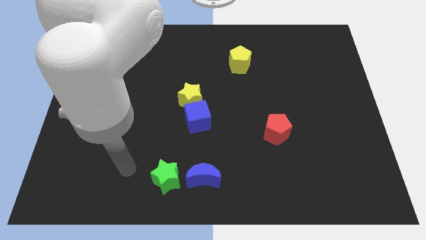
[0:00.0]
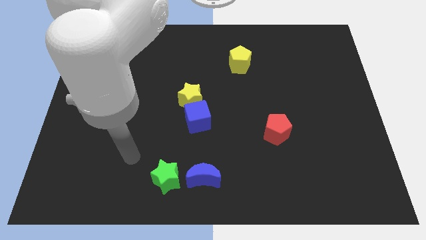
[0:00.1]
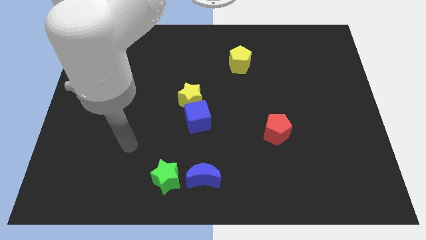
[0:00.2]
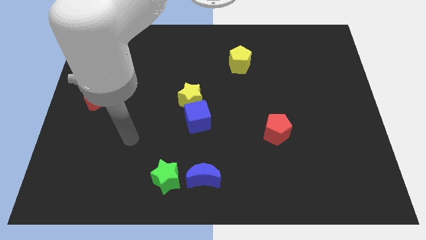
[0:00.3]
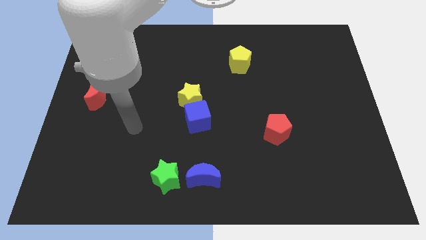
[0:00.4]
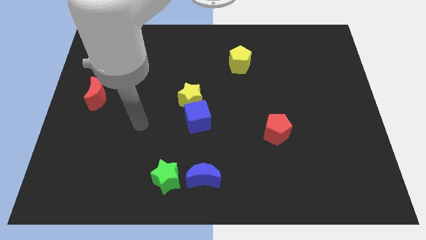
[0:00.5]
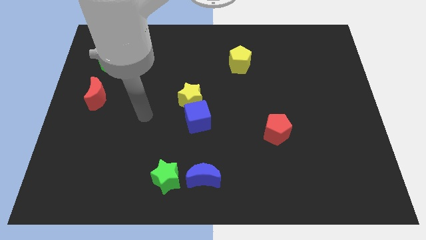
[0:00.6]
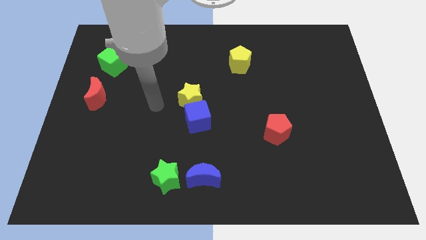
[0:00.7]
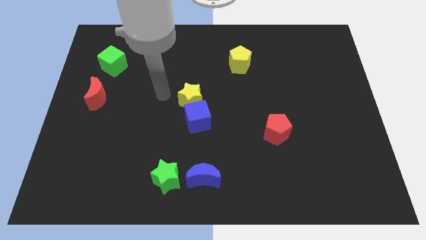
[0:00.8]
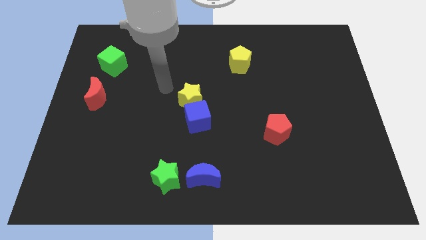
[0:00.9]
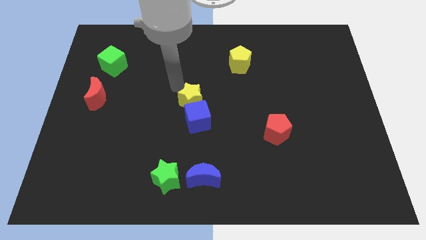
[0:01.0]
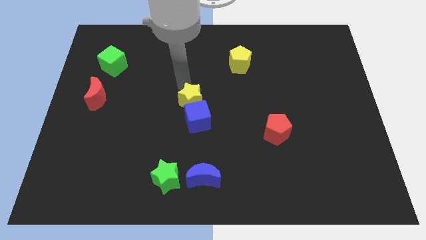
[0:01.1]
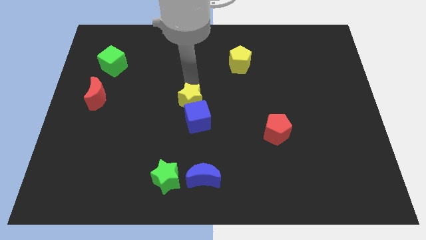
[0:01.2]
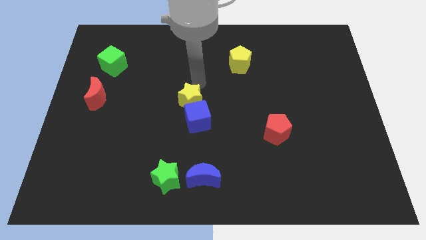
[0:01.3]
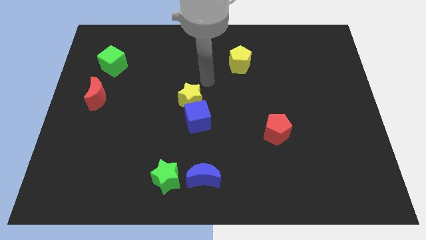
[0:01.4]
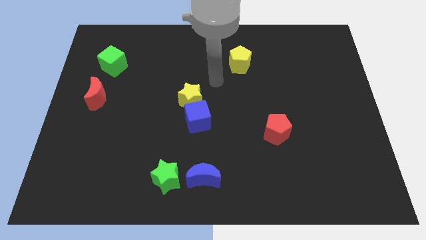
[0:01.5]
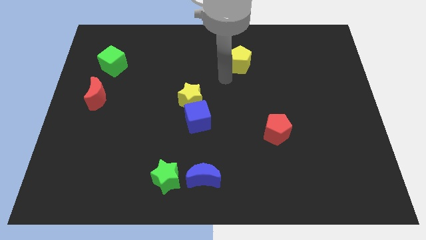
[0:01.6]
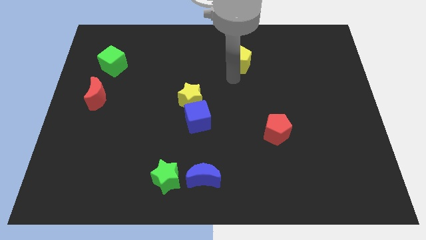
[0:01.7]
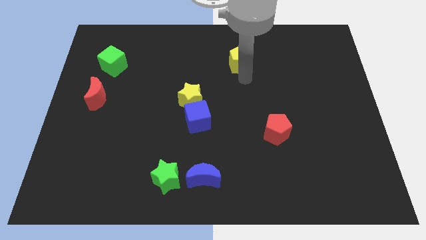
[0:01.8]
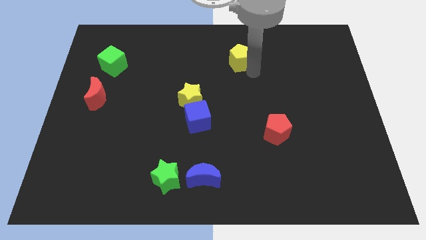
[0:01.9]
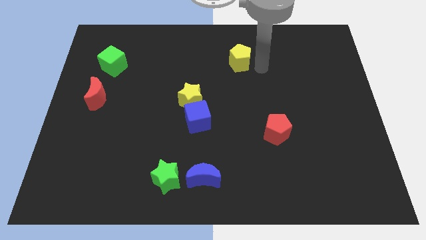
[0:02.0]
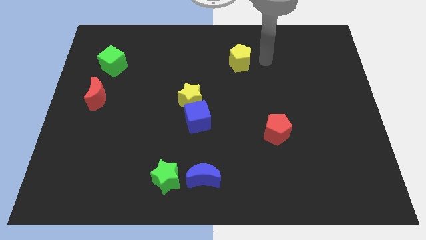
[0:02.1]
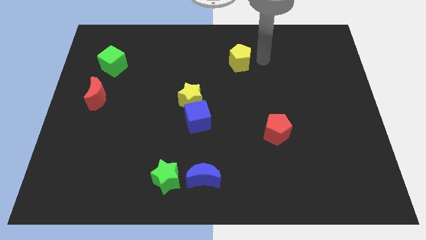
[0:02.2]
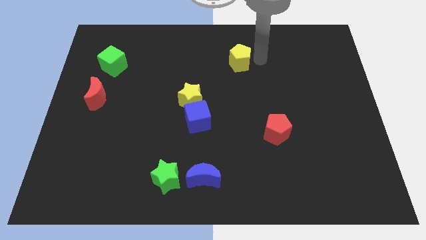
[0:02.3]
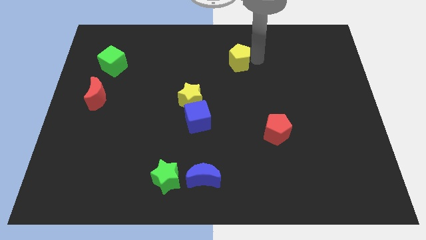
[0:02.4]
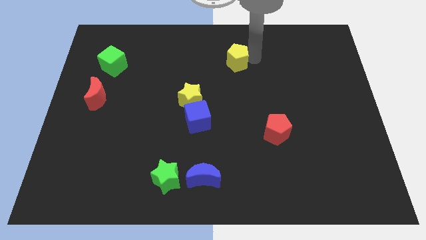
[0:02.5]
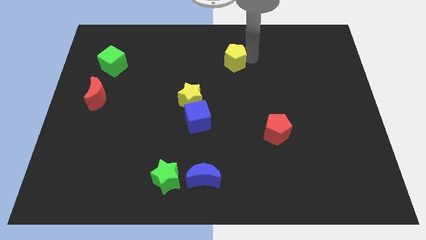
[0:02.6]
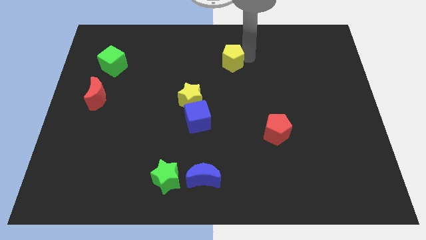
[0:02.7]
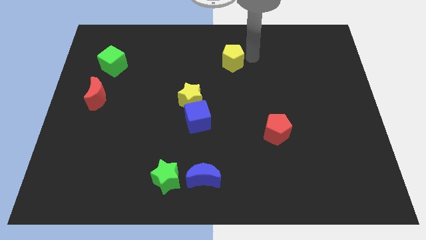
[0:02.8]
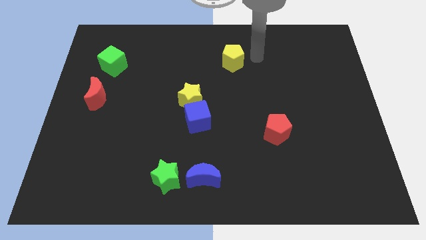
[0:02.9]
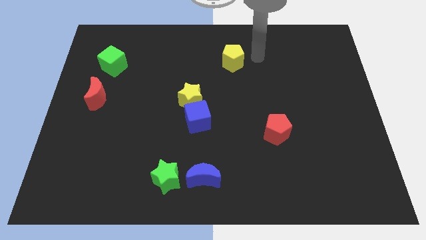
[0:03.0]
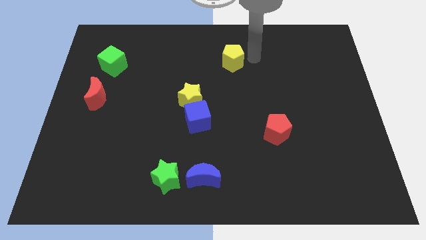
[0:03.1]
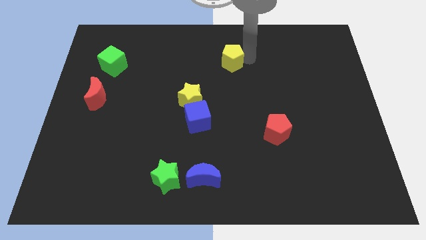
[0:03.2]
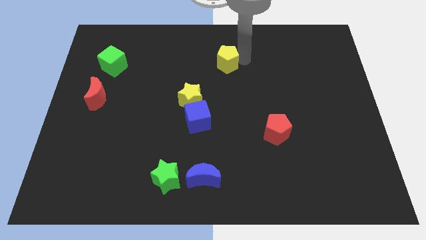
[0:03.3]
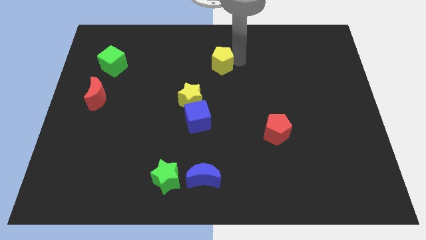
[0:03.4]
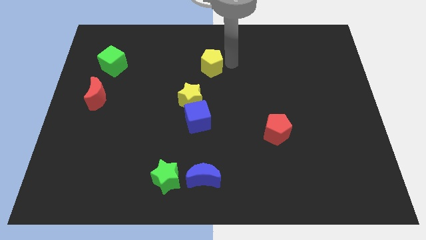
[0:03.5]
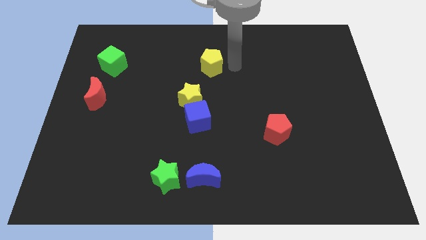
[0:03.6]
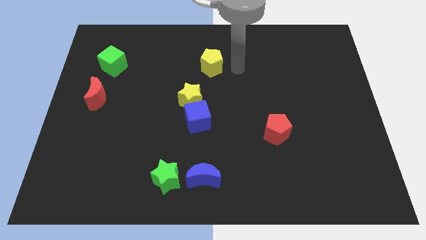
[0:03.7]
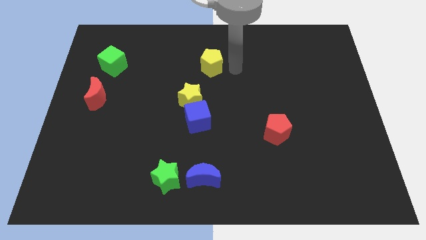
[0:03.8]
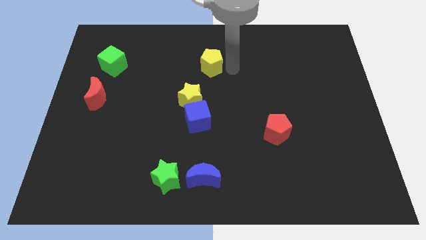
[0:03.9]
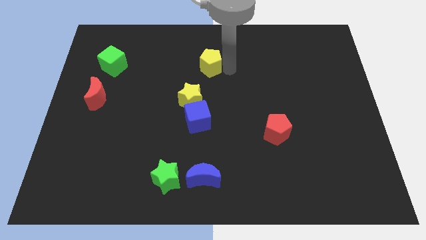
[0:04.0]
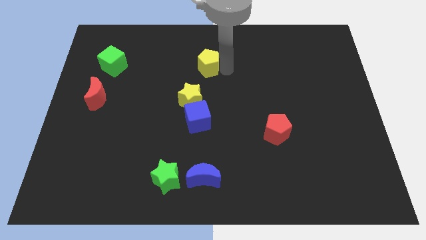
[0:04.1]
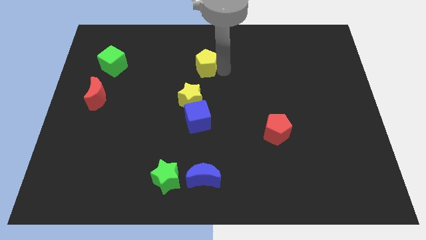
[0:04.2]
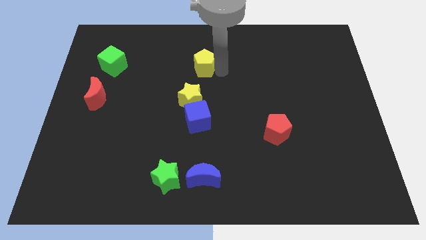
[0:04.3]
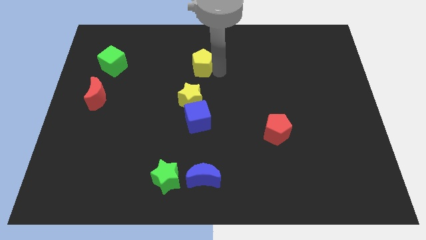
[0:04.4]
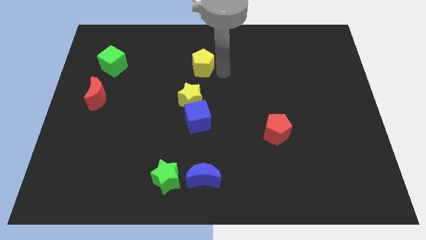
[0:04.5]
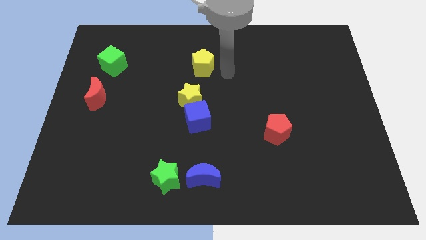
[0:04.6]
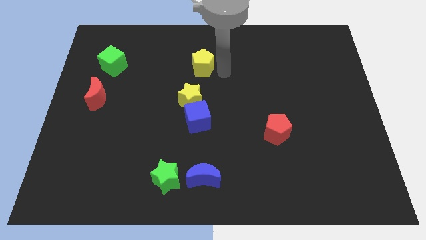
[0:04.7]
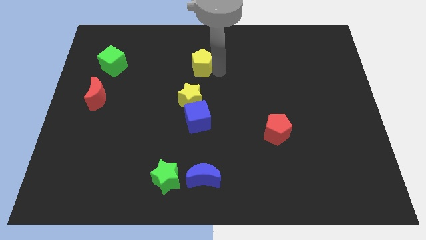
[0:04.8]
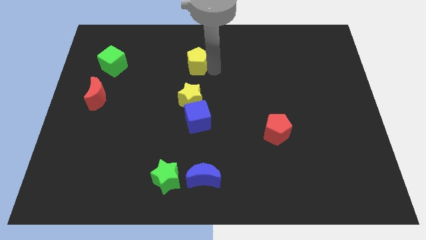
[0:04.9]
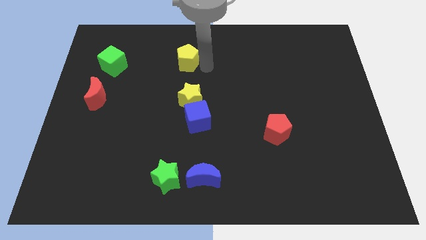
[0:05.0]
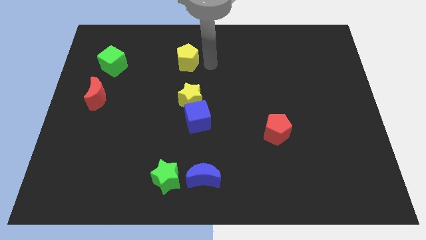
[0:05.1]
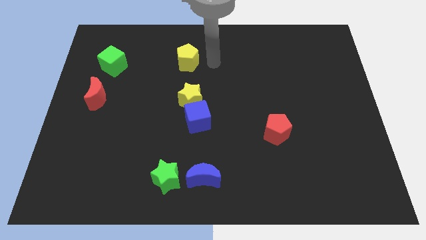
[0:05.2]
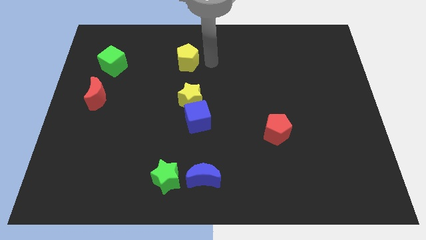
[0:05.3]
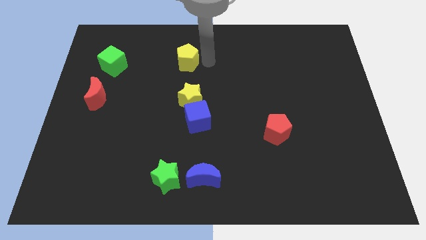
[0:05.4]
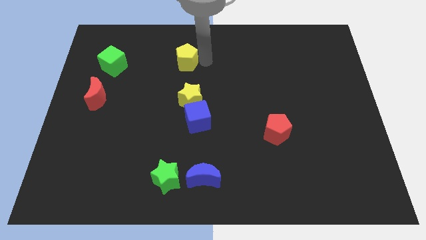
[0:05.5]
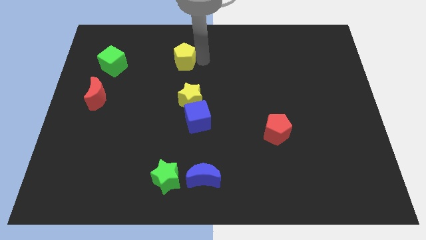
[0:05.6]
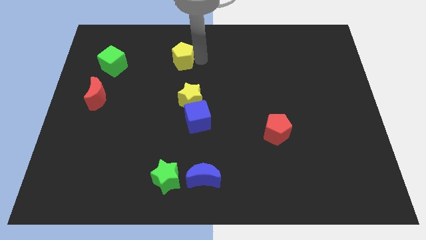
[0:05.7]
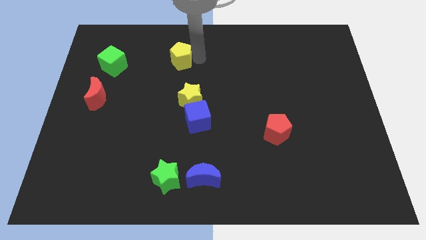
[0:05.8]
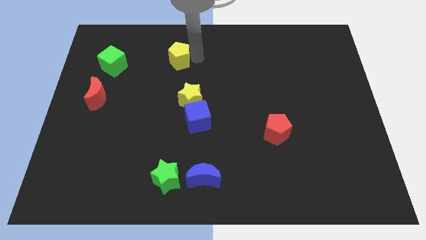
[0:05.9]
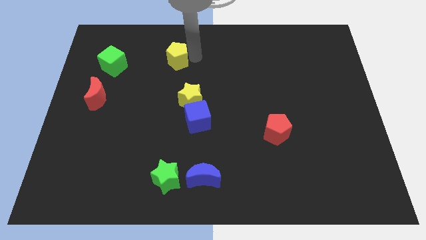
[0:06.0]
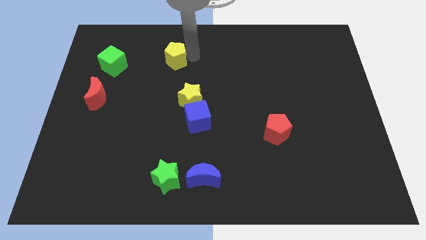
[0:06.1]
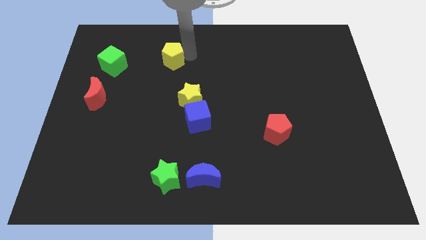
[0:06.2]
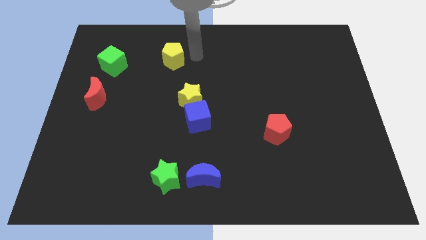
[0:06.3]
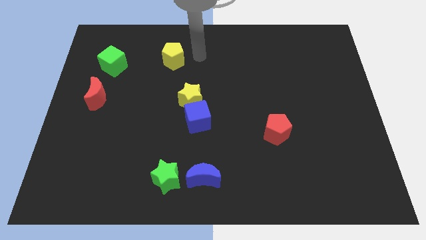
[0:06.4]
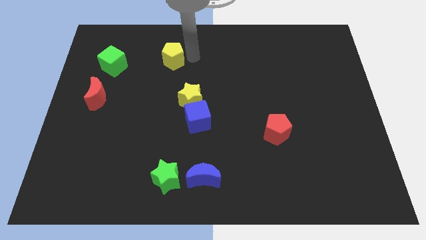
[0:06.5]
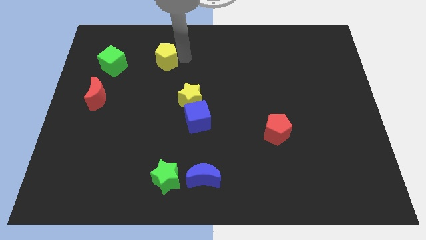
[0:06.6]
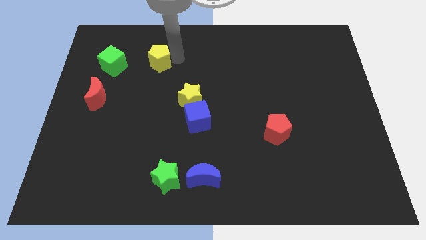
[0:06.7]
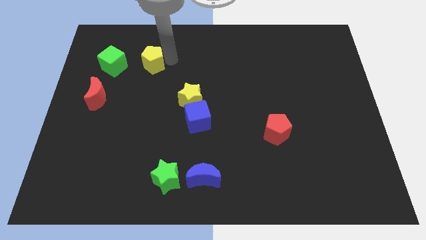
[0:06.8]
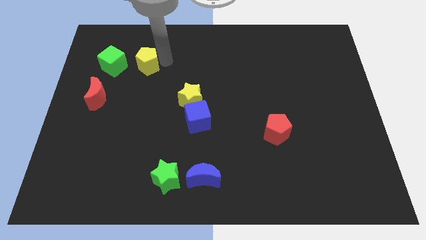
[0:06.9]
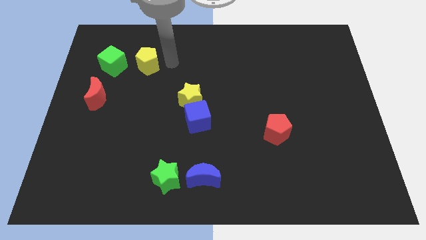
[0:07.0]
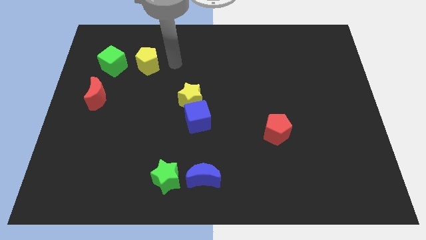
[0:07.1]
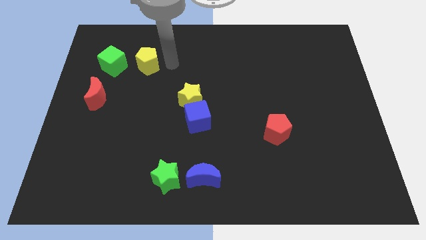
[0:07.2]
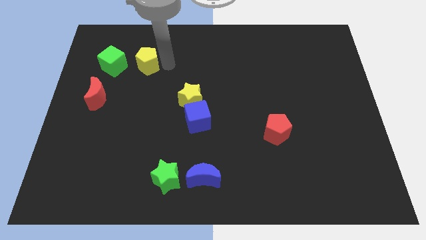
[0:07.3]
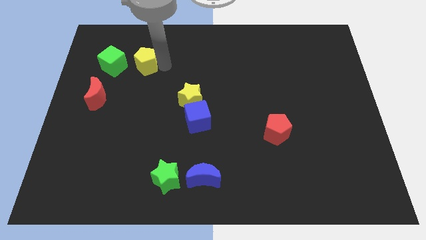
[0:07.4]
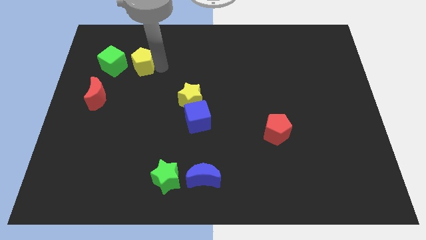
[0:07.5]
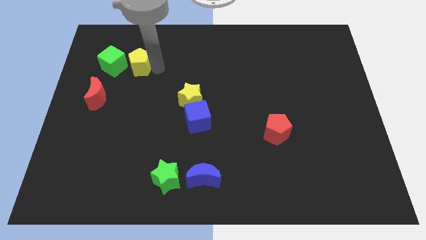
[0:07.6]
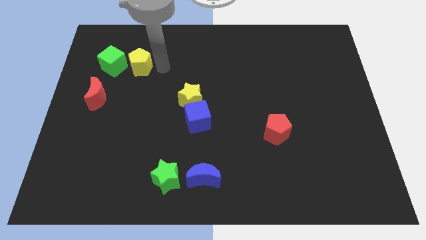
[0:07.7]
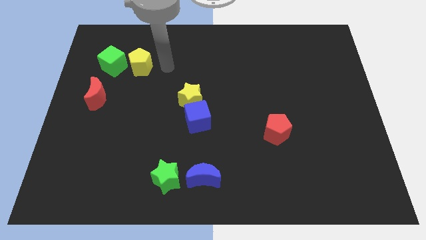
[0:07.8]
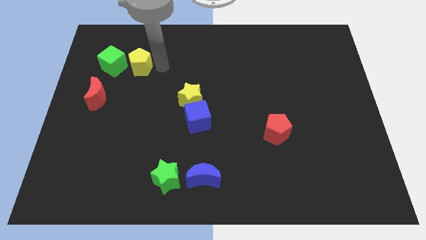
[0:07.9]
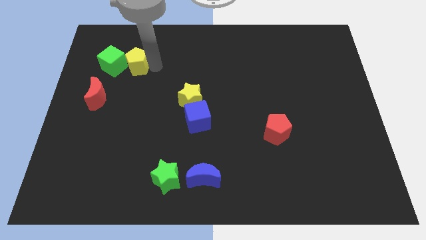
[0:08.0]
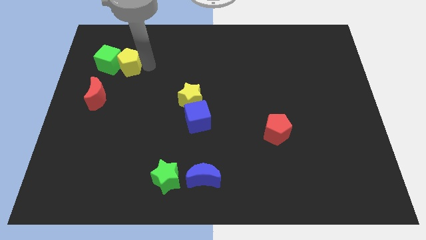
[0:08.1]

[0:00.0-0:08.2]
move the yellow pentagon towards the green cube
